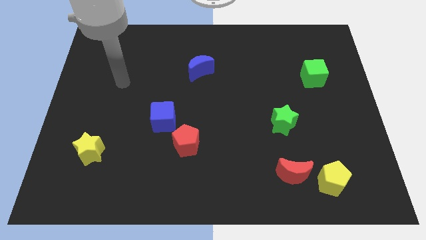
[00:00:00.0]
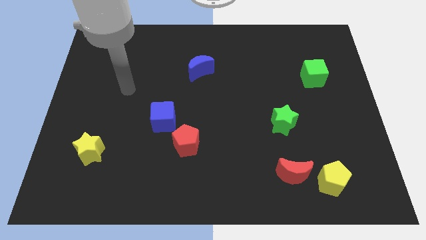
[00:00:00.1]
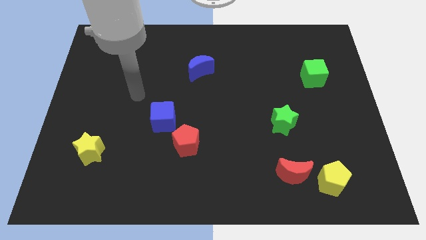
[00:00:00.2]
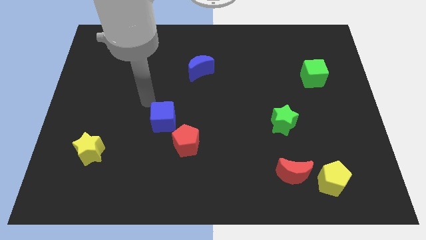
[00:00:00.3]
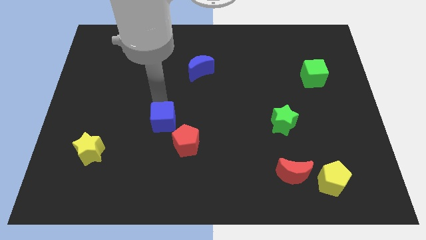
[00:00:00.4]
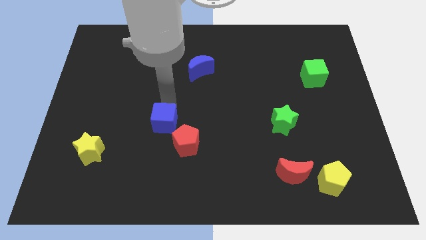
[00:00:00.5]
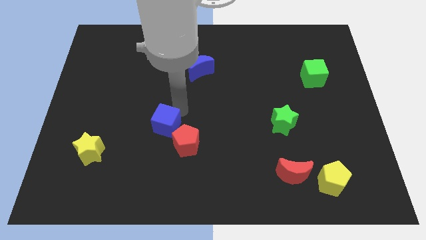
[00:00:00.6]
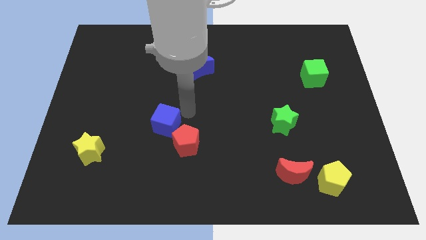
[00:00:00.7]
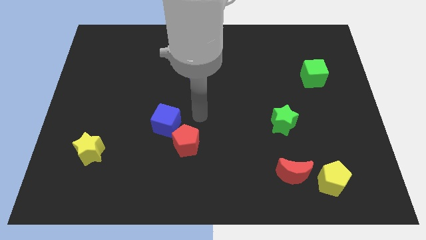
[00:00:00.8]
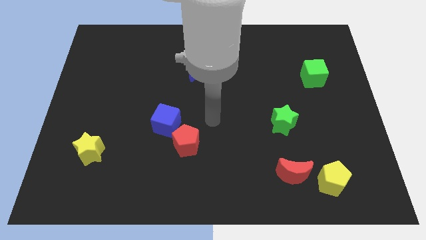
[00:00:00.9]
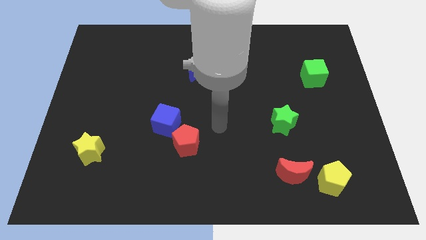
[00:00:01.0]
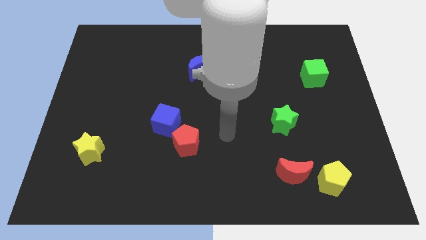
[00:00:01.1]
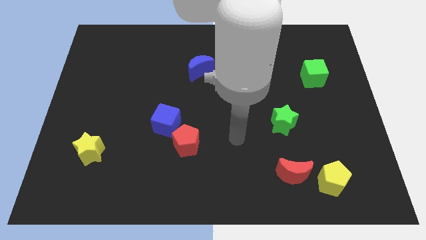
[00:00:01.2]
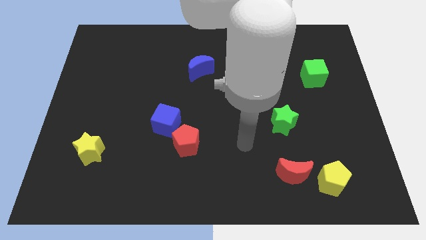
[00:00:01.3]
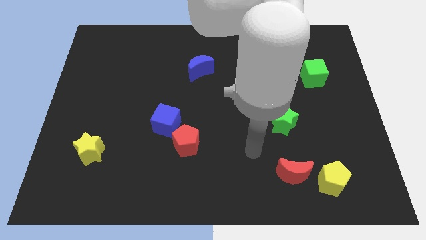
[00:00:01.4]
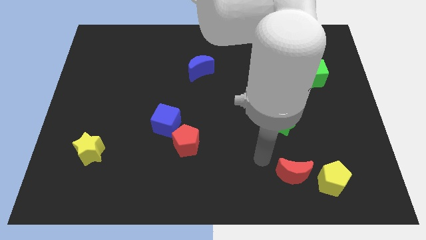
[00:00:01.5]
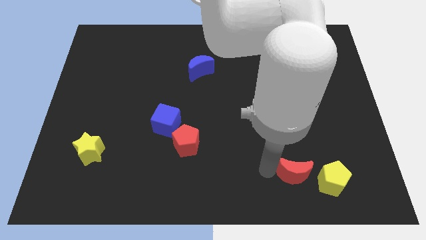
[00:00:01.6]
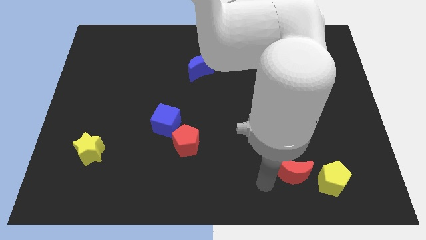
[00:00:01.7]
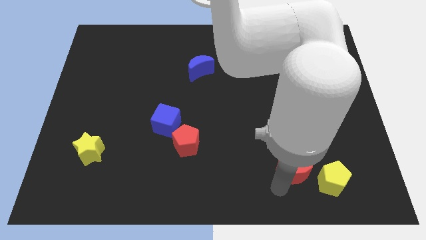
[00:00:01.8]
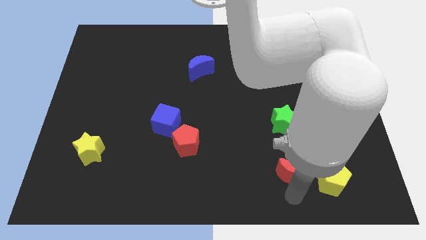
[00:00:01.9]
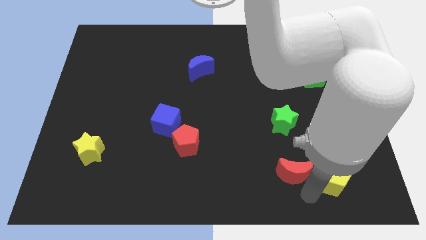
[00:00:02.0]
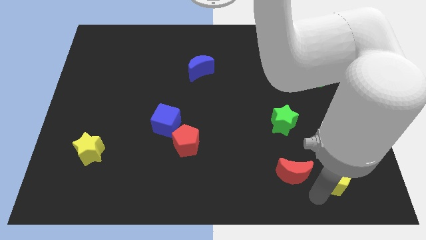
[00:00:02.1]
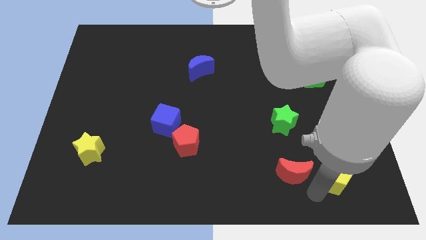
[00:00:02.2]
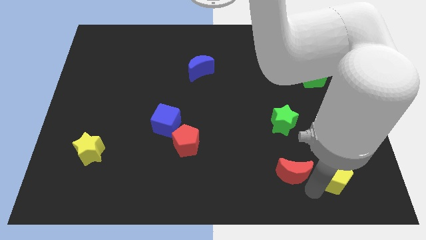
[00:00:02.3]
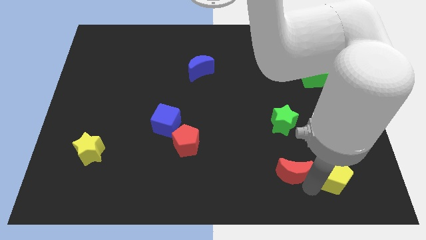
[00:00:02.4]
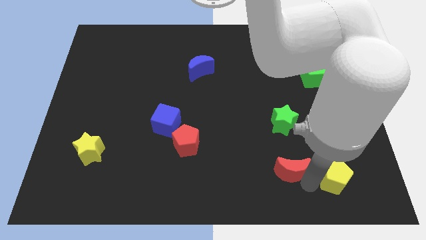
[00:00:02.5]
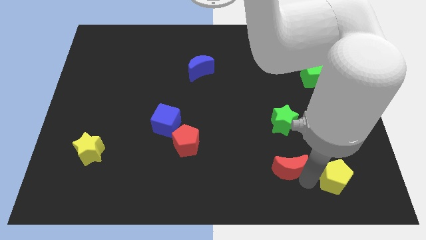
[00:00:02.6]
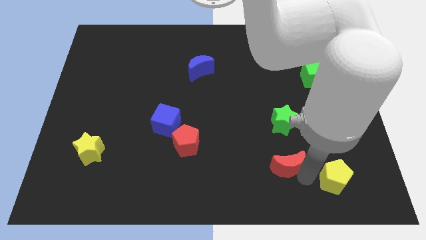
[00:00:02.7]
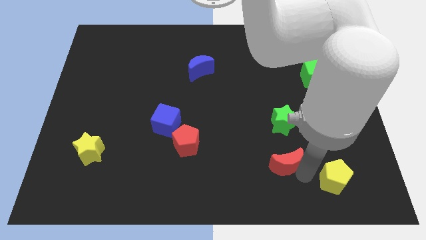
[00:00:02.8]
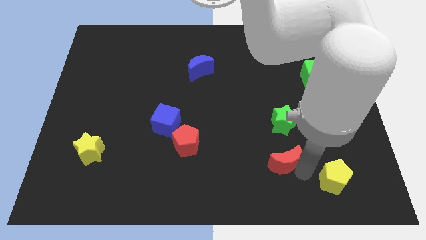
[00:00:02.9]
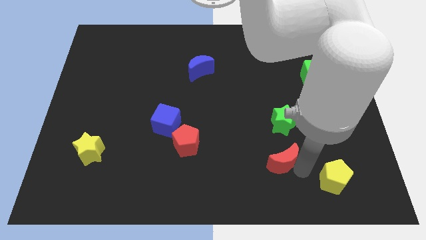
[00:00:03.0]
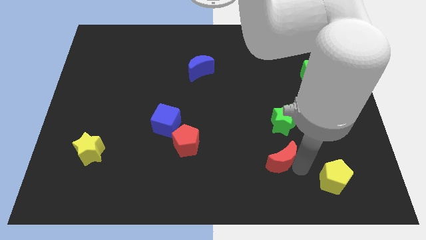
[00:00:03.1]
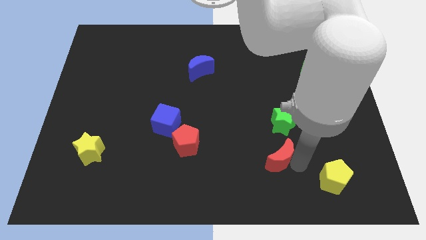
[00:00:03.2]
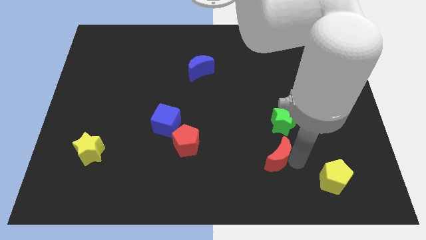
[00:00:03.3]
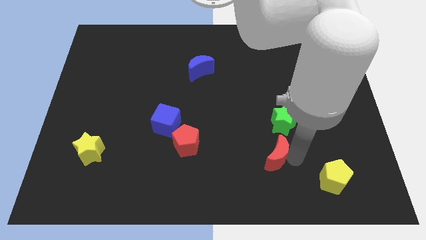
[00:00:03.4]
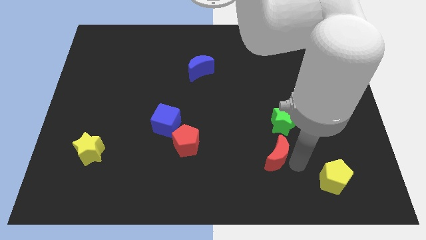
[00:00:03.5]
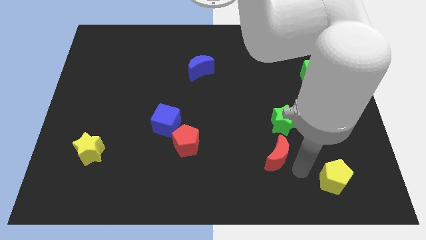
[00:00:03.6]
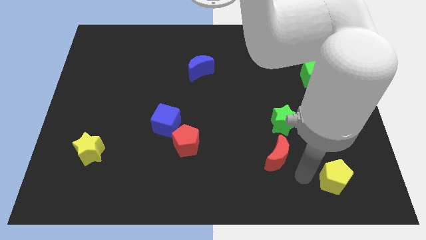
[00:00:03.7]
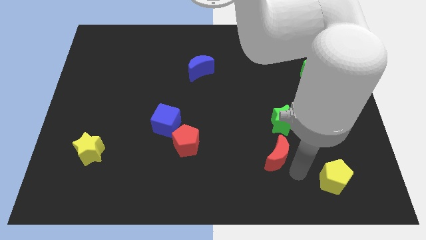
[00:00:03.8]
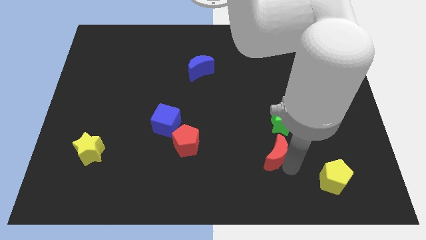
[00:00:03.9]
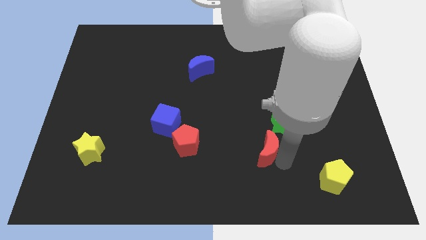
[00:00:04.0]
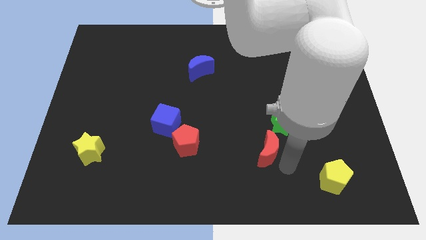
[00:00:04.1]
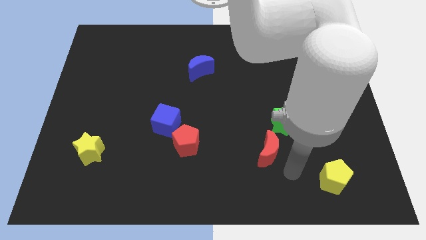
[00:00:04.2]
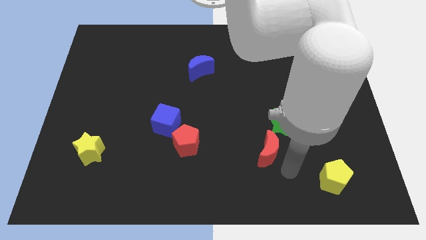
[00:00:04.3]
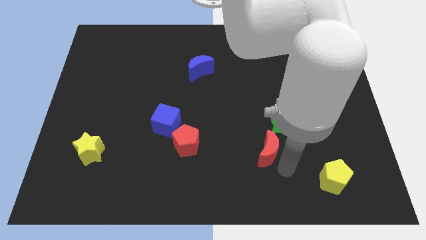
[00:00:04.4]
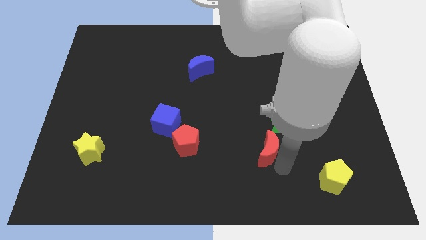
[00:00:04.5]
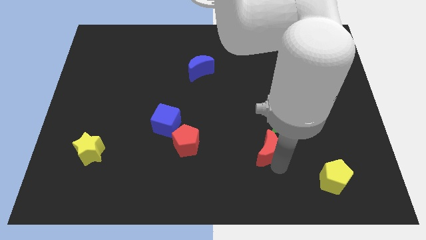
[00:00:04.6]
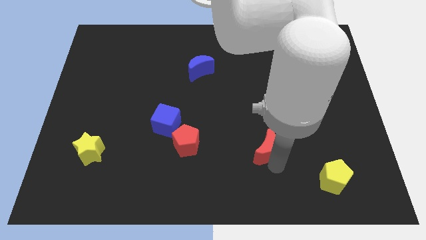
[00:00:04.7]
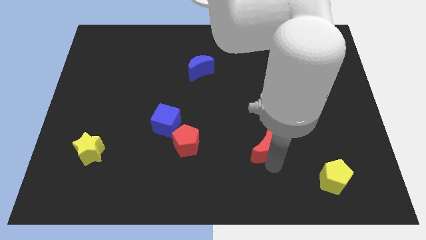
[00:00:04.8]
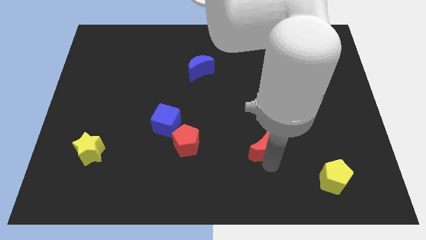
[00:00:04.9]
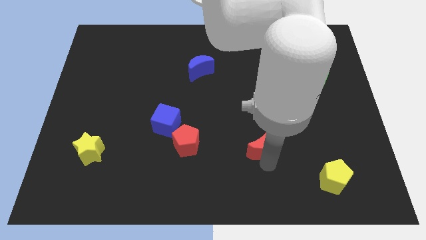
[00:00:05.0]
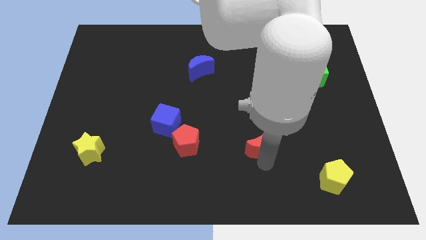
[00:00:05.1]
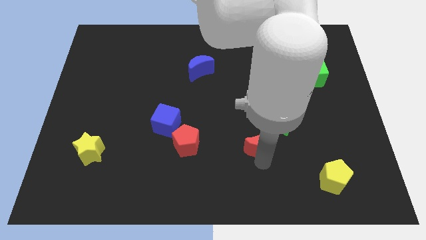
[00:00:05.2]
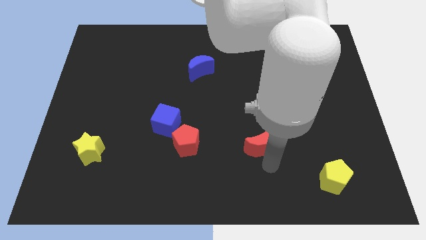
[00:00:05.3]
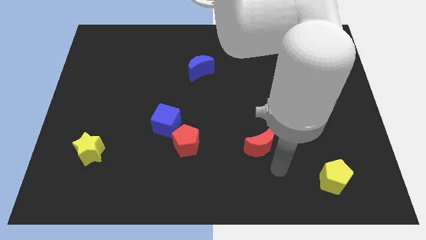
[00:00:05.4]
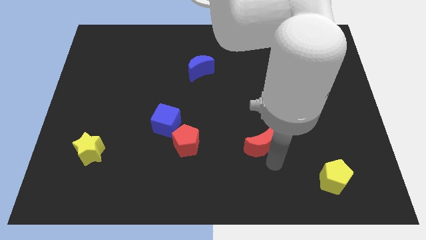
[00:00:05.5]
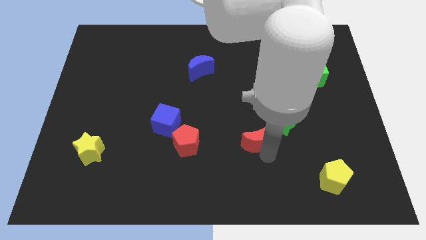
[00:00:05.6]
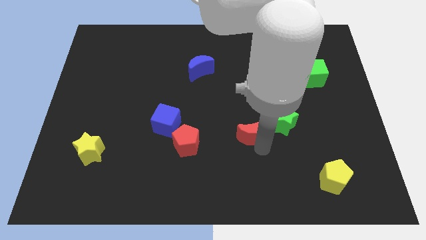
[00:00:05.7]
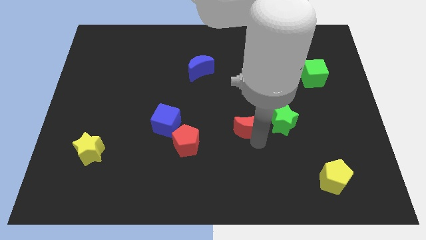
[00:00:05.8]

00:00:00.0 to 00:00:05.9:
push the red moon to the center
